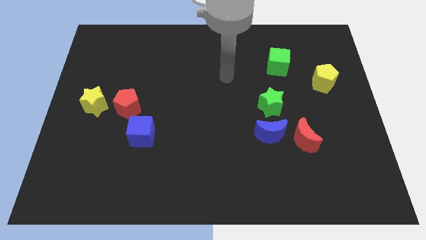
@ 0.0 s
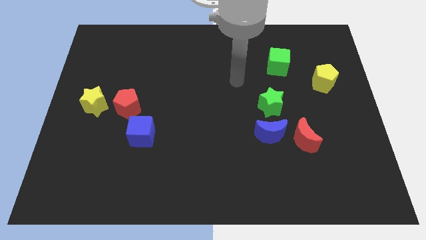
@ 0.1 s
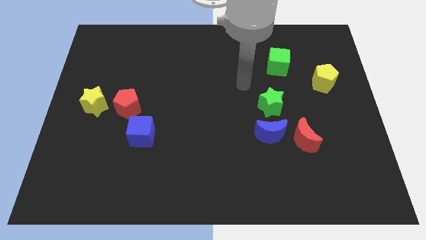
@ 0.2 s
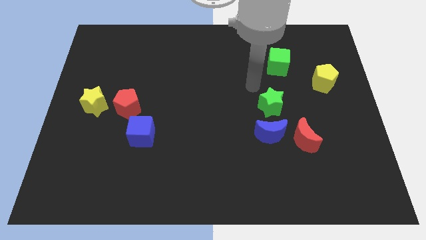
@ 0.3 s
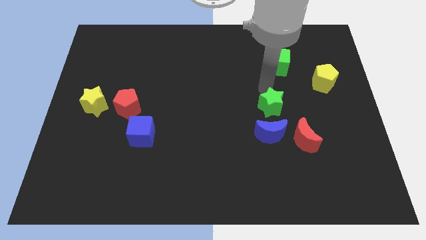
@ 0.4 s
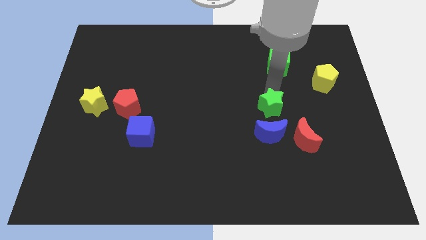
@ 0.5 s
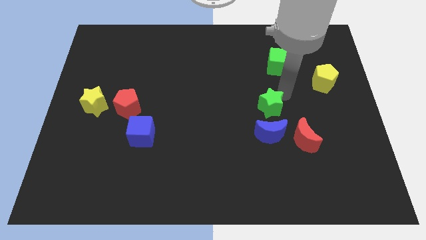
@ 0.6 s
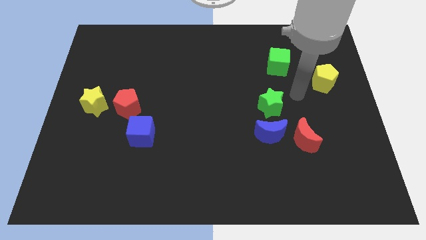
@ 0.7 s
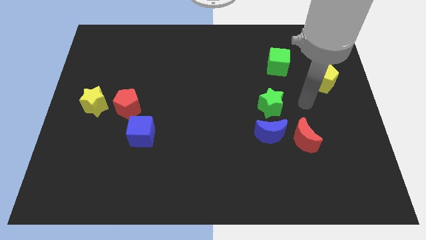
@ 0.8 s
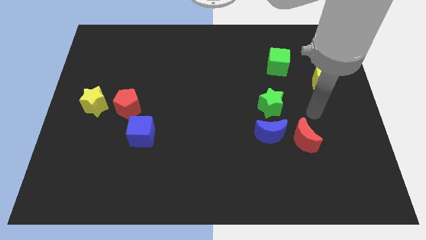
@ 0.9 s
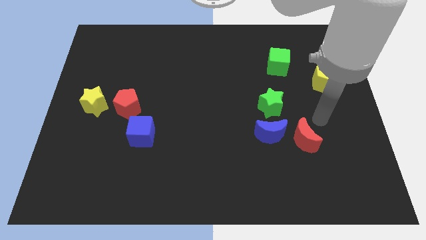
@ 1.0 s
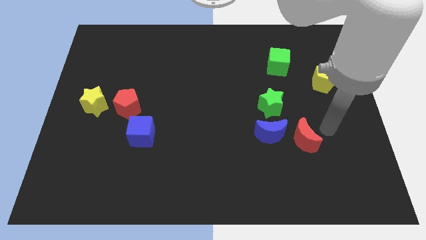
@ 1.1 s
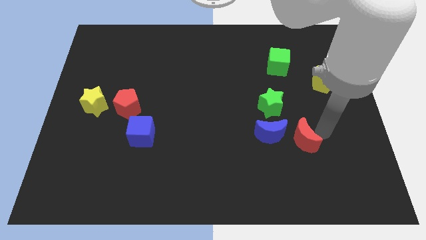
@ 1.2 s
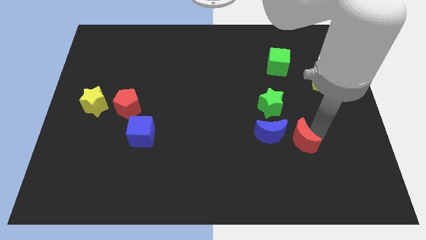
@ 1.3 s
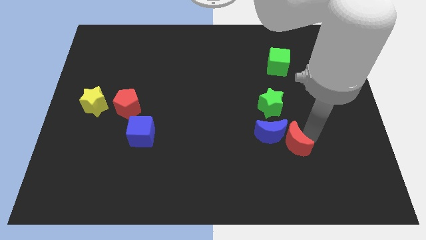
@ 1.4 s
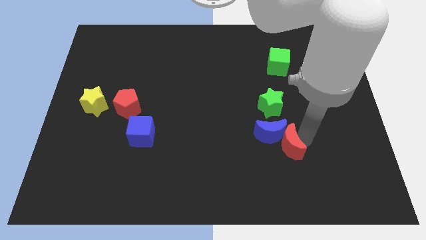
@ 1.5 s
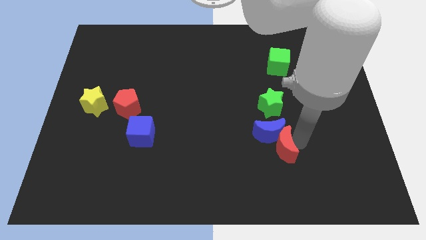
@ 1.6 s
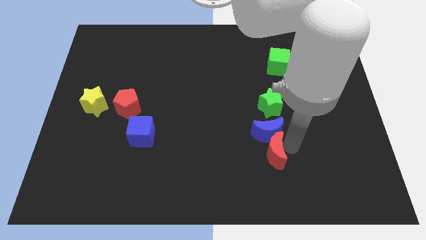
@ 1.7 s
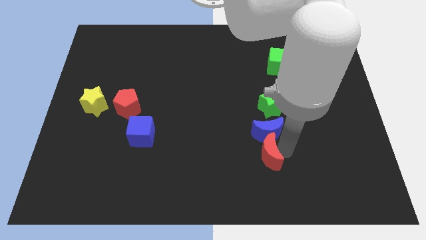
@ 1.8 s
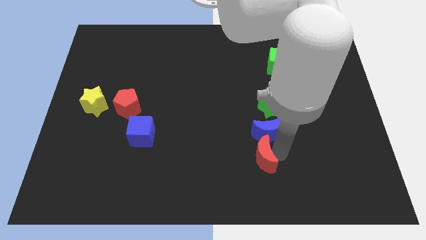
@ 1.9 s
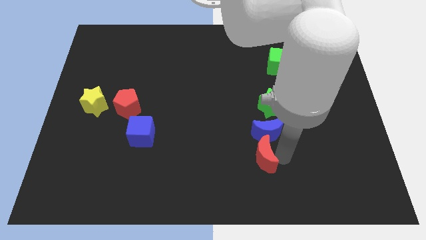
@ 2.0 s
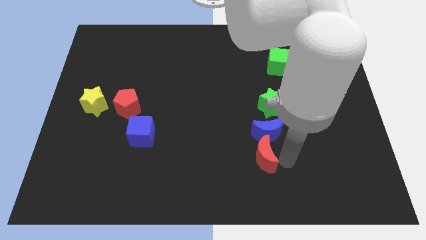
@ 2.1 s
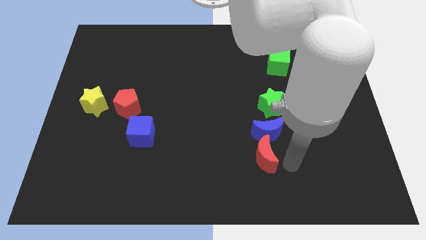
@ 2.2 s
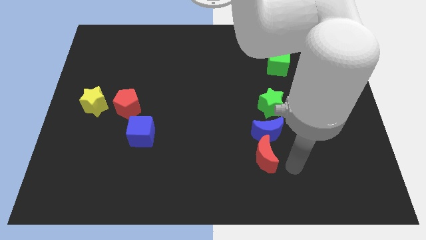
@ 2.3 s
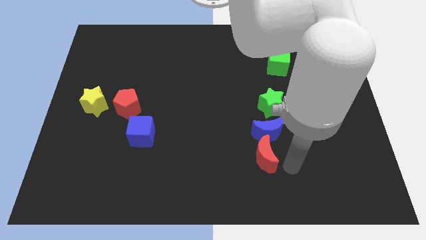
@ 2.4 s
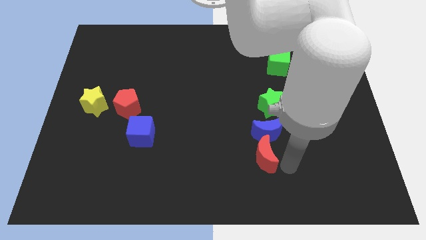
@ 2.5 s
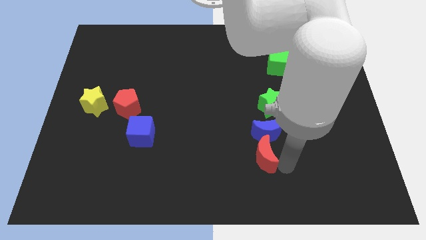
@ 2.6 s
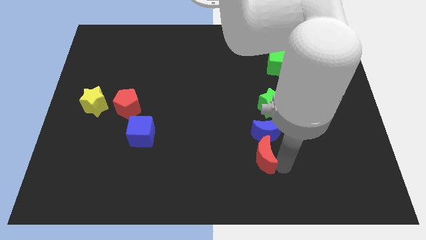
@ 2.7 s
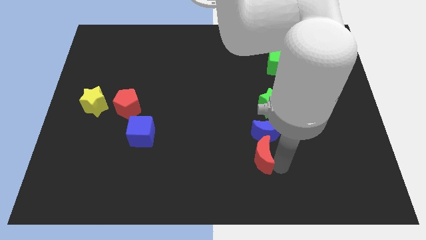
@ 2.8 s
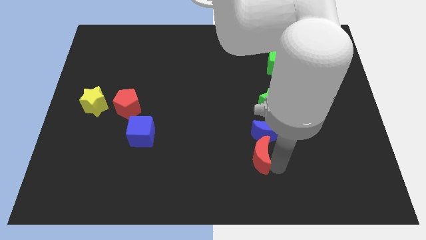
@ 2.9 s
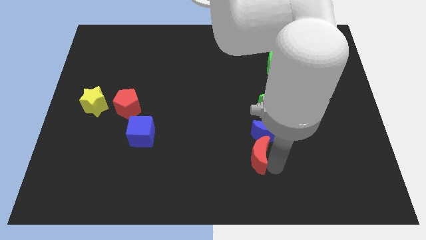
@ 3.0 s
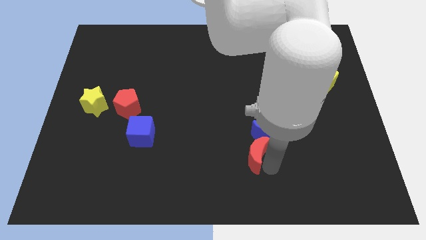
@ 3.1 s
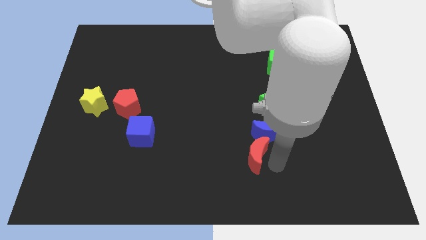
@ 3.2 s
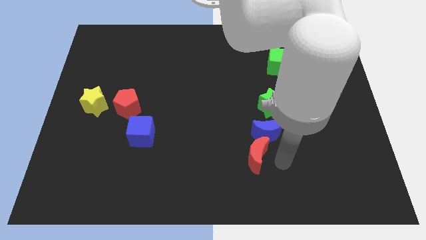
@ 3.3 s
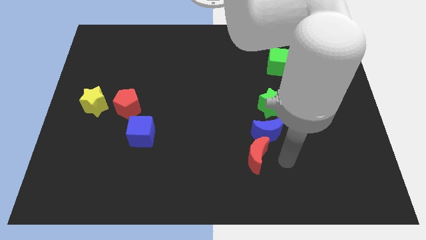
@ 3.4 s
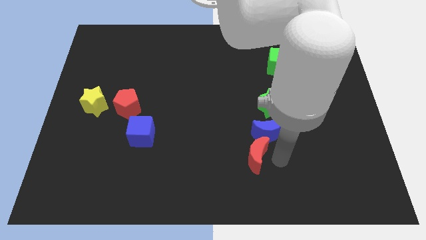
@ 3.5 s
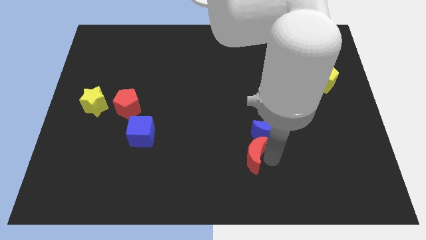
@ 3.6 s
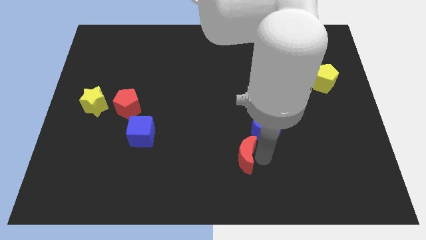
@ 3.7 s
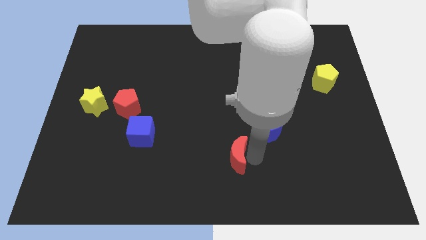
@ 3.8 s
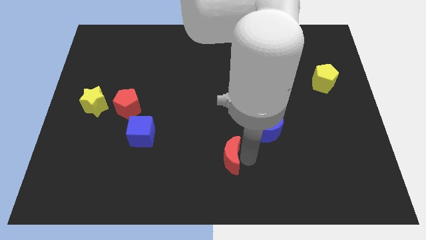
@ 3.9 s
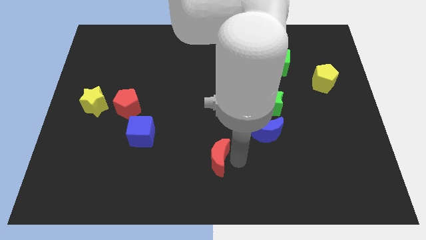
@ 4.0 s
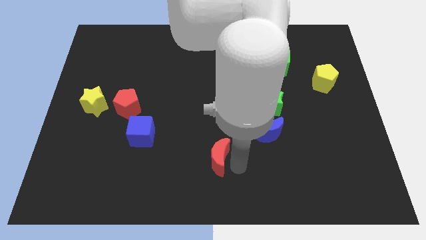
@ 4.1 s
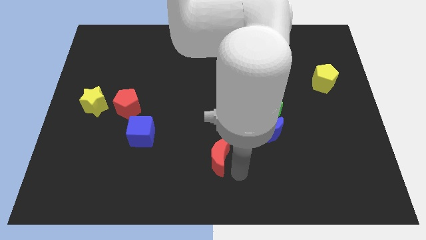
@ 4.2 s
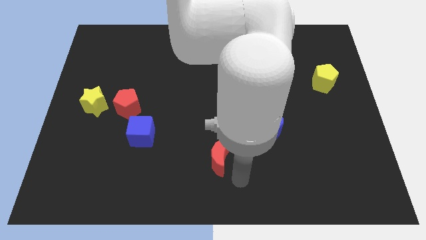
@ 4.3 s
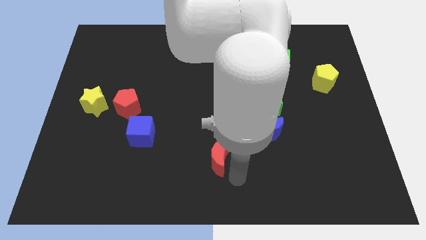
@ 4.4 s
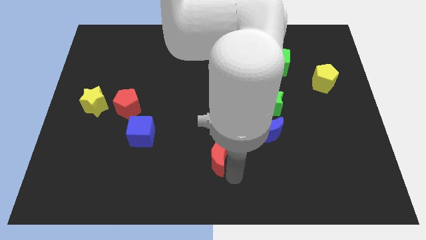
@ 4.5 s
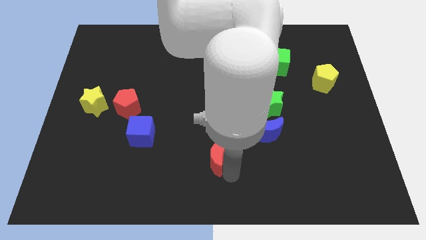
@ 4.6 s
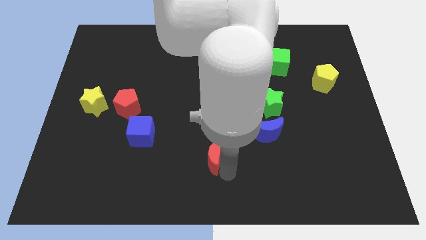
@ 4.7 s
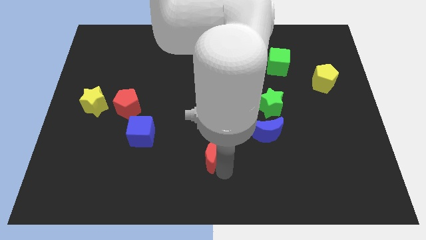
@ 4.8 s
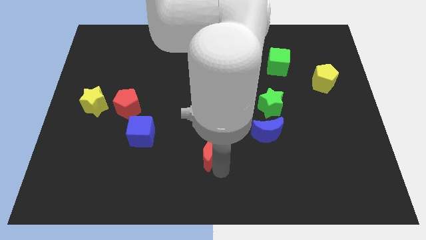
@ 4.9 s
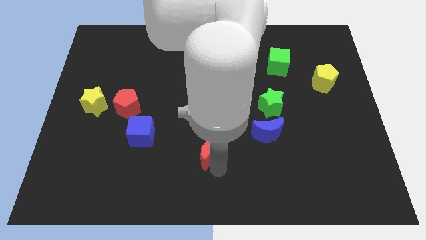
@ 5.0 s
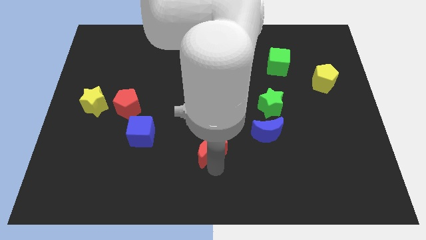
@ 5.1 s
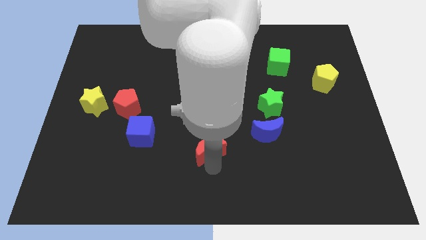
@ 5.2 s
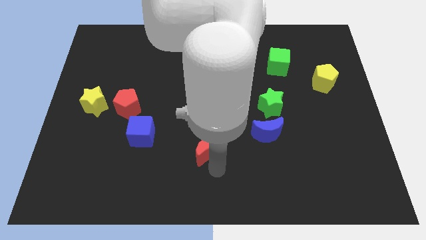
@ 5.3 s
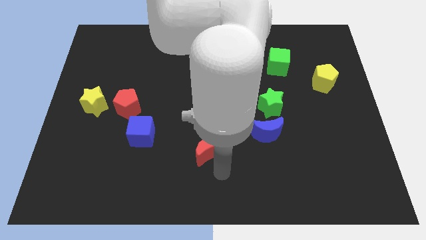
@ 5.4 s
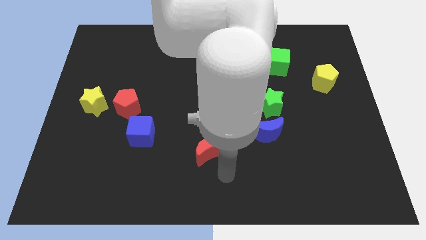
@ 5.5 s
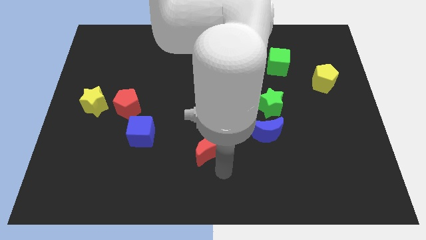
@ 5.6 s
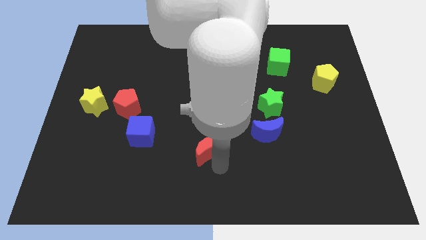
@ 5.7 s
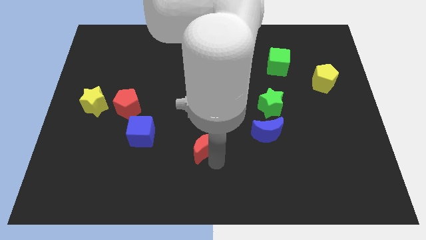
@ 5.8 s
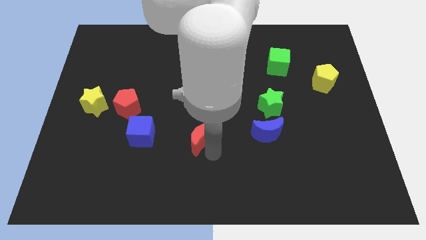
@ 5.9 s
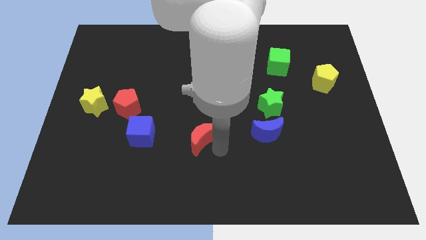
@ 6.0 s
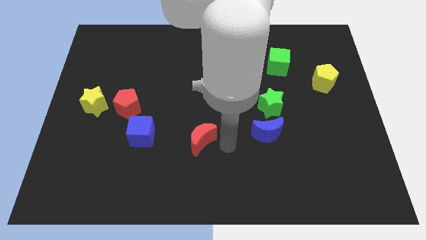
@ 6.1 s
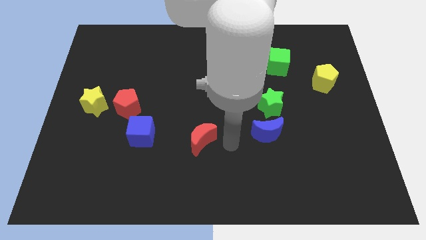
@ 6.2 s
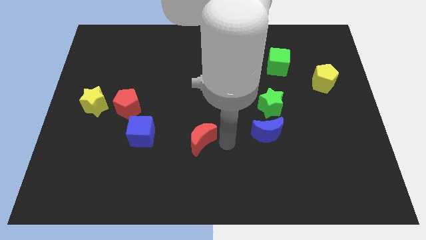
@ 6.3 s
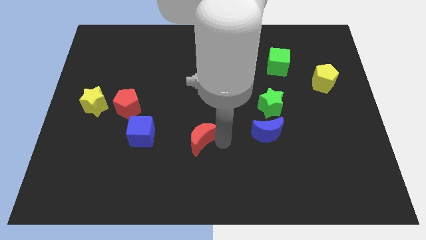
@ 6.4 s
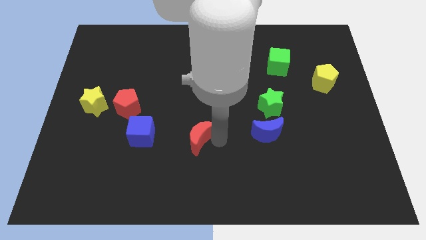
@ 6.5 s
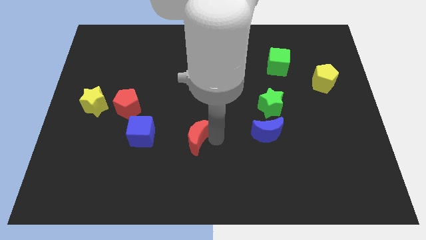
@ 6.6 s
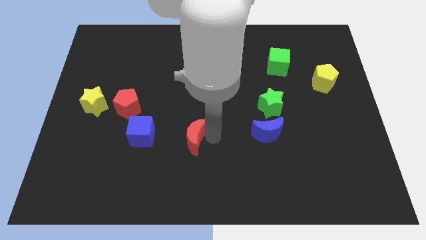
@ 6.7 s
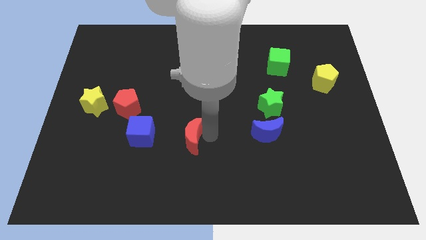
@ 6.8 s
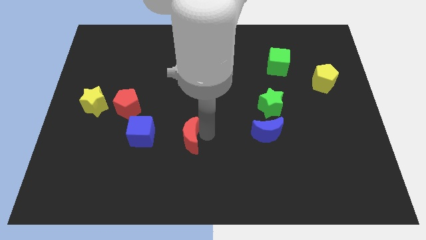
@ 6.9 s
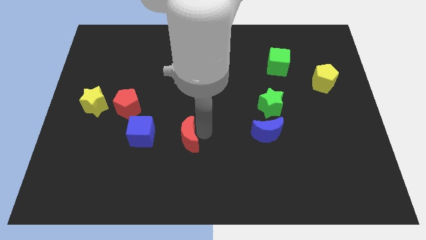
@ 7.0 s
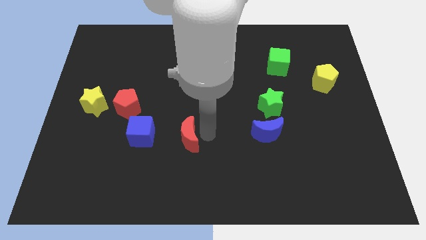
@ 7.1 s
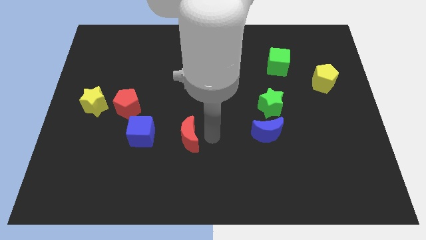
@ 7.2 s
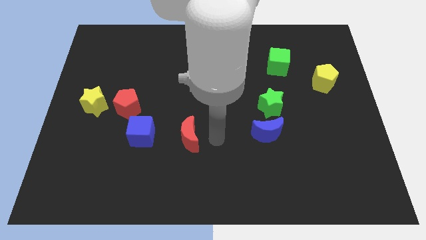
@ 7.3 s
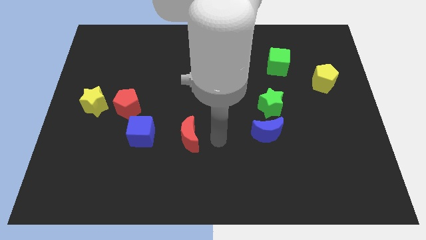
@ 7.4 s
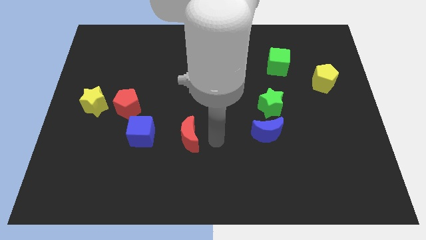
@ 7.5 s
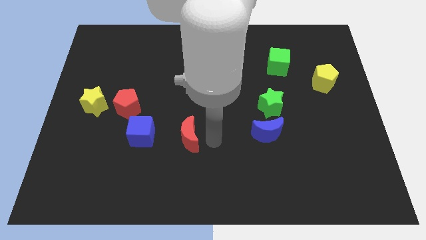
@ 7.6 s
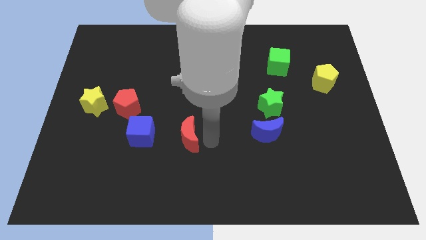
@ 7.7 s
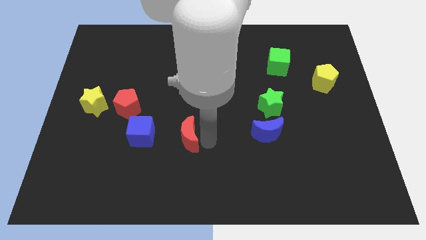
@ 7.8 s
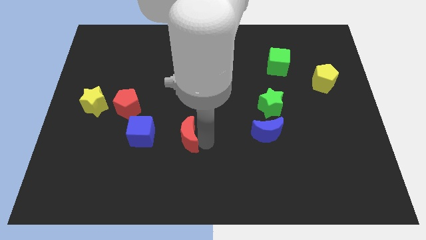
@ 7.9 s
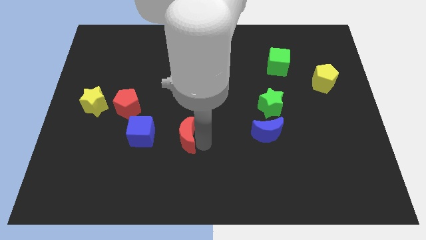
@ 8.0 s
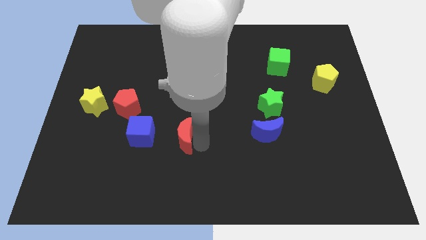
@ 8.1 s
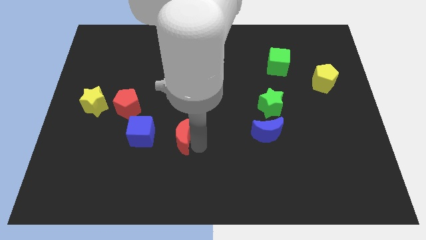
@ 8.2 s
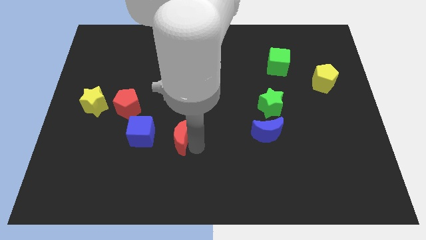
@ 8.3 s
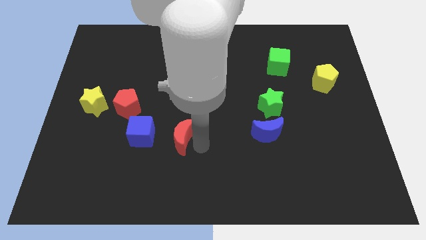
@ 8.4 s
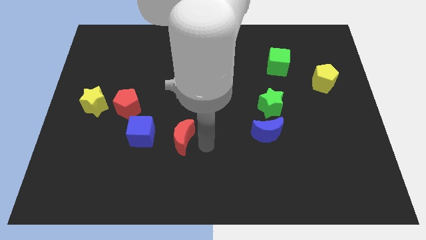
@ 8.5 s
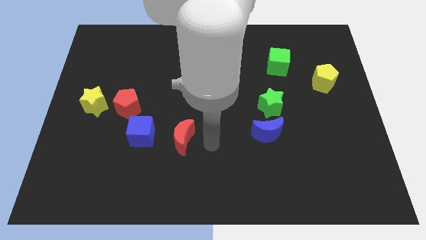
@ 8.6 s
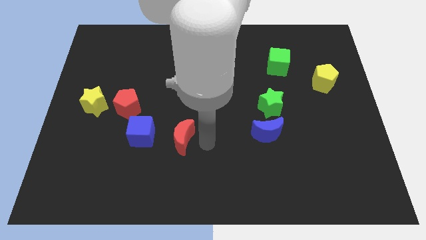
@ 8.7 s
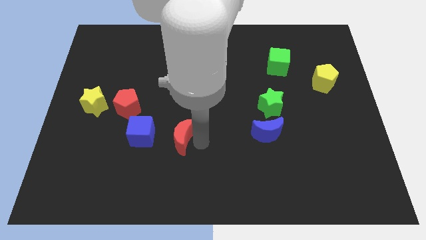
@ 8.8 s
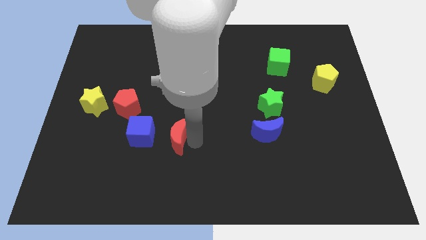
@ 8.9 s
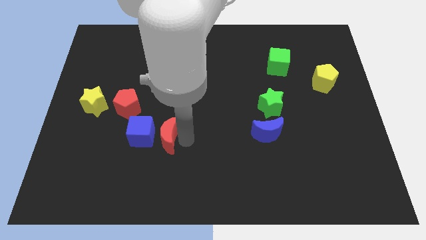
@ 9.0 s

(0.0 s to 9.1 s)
move the red moon towards the blue cube
